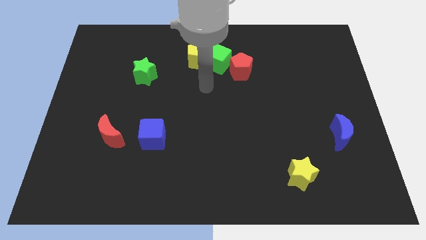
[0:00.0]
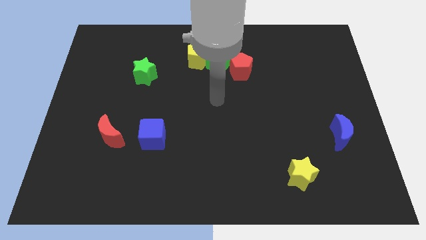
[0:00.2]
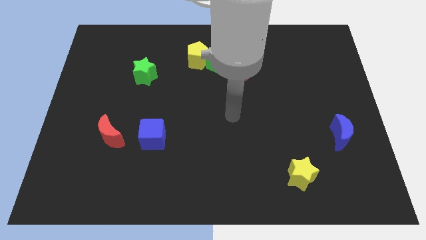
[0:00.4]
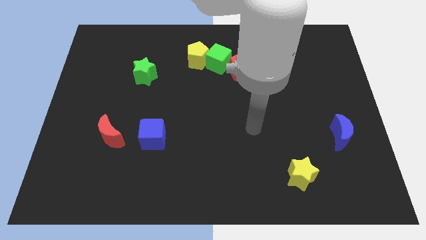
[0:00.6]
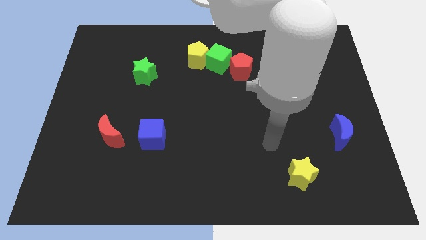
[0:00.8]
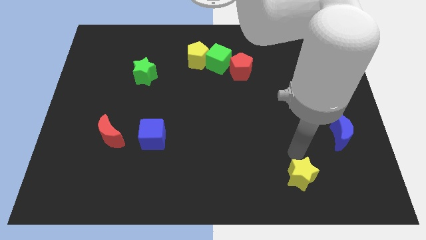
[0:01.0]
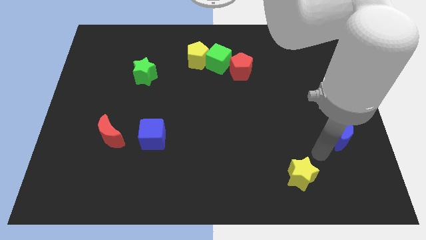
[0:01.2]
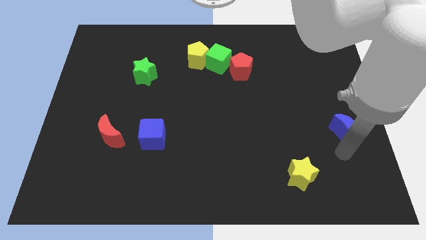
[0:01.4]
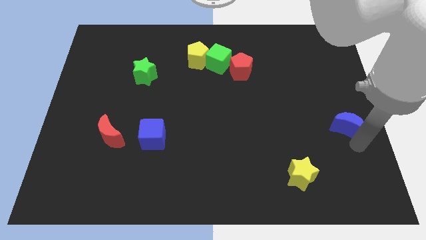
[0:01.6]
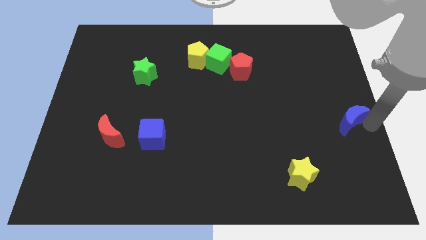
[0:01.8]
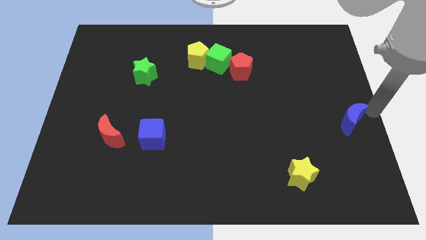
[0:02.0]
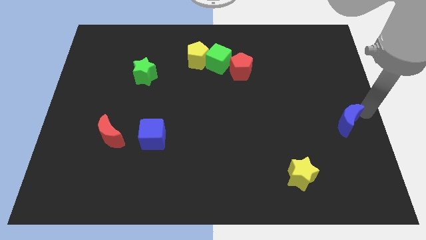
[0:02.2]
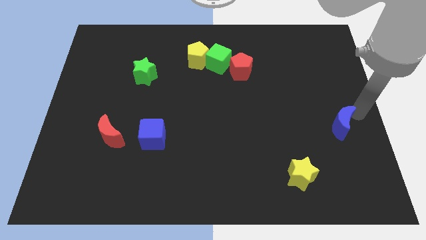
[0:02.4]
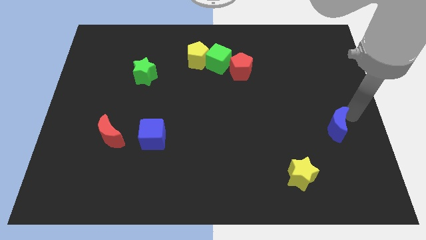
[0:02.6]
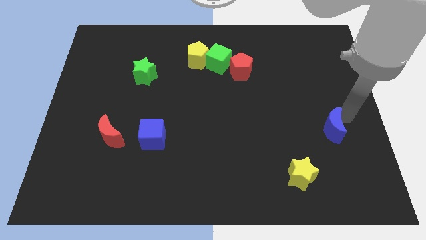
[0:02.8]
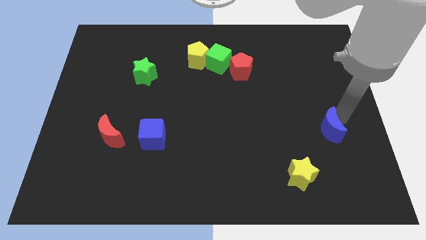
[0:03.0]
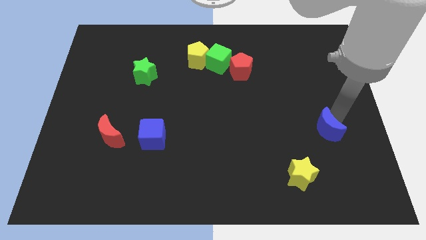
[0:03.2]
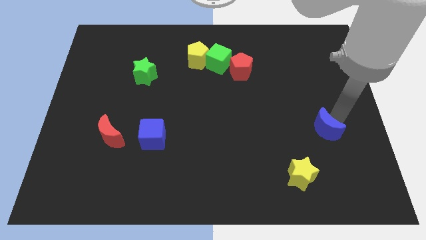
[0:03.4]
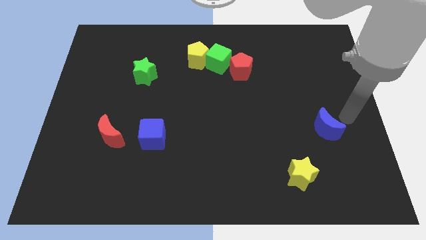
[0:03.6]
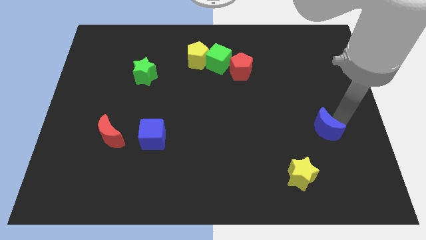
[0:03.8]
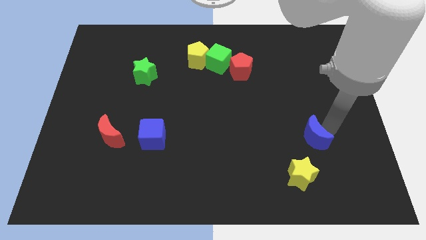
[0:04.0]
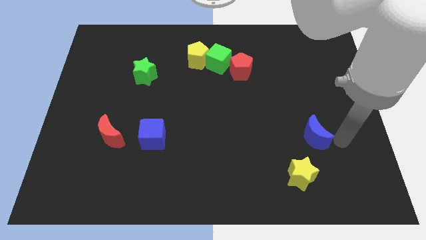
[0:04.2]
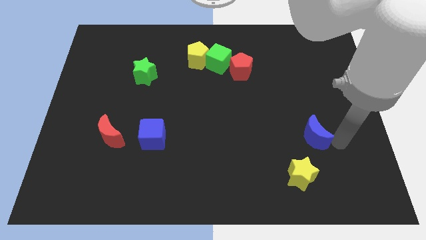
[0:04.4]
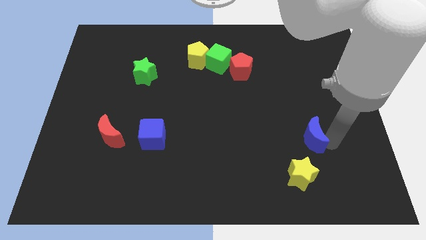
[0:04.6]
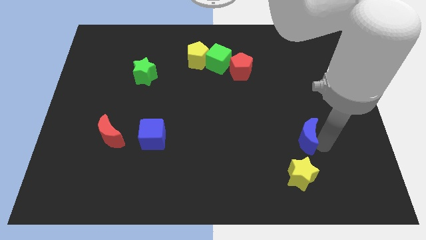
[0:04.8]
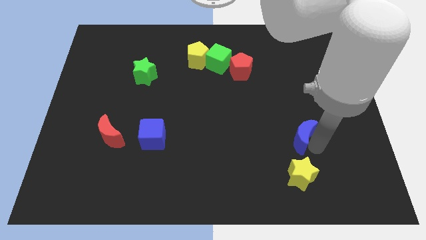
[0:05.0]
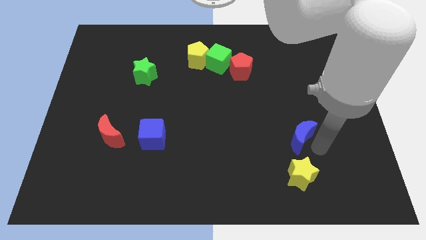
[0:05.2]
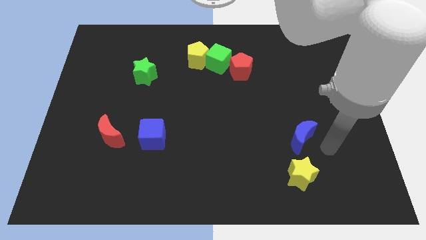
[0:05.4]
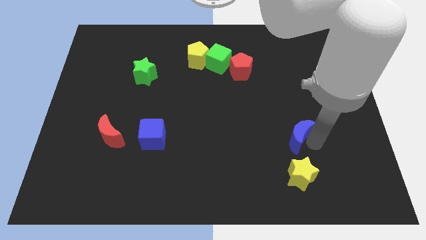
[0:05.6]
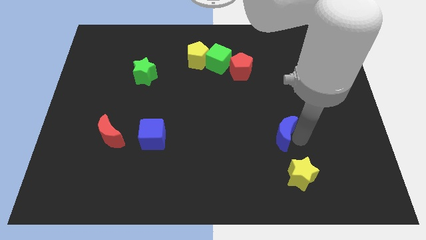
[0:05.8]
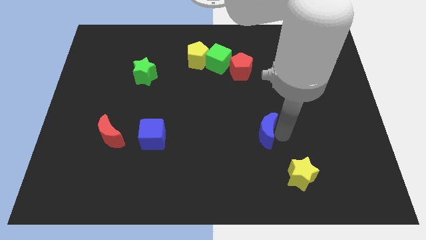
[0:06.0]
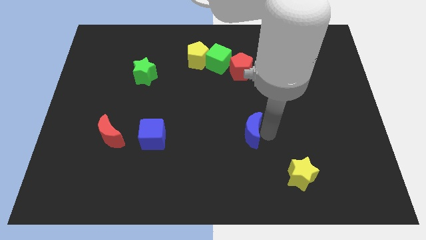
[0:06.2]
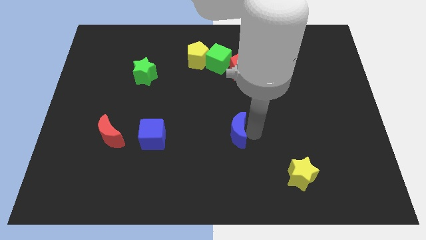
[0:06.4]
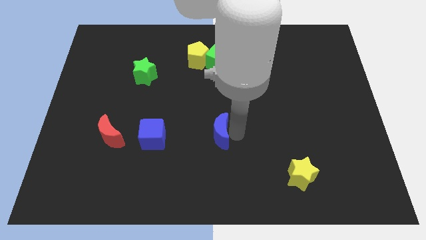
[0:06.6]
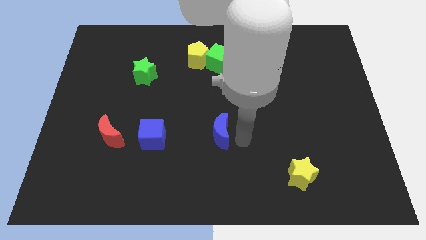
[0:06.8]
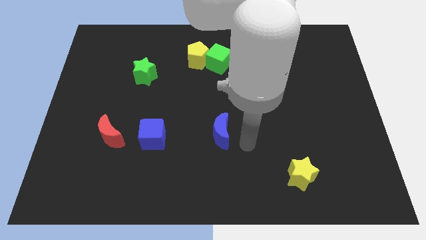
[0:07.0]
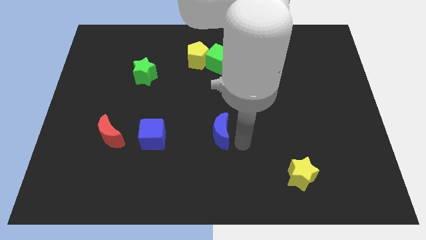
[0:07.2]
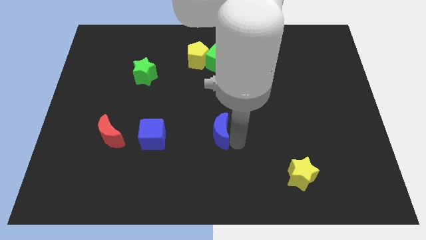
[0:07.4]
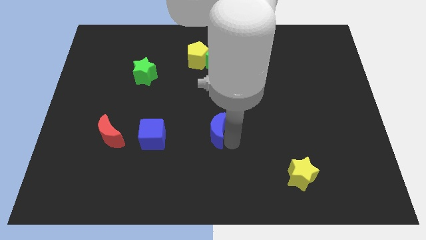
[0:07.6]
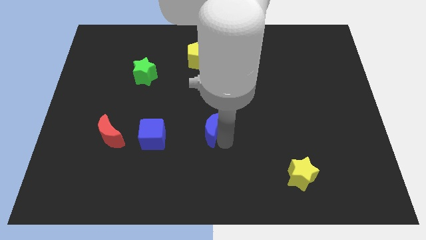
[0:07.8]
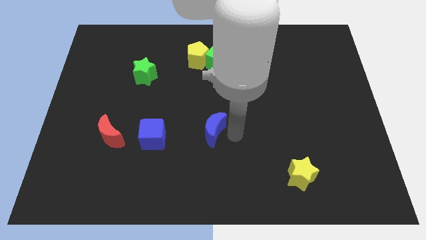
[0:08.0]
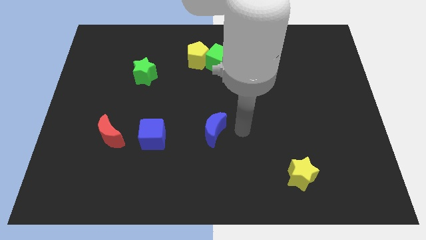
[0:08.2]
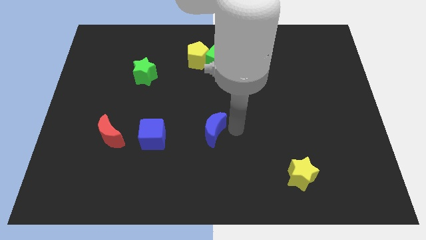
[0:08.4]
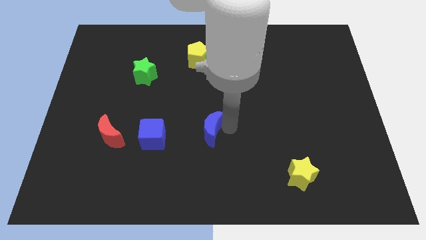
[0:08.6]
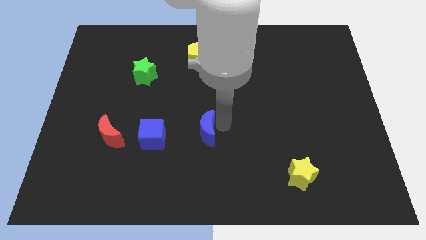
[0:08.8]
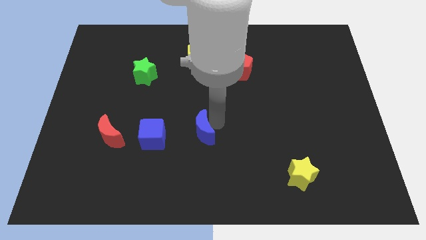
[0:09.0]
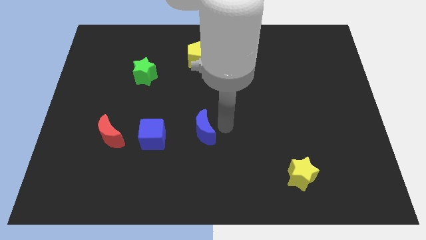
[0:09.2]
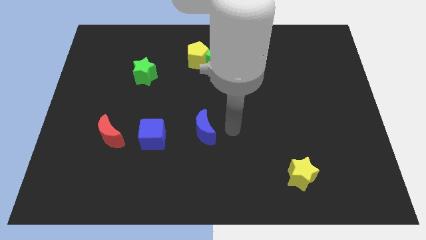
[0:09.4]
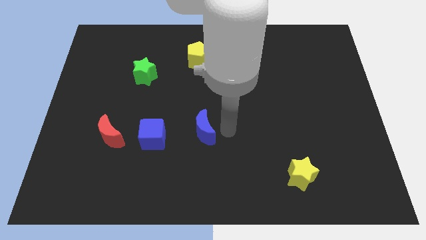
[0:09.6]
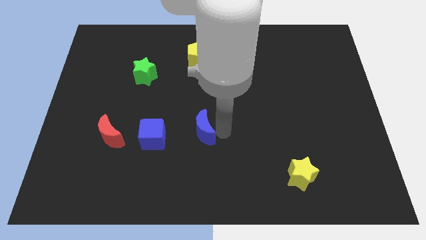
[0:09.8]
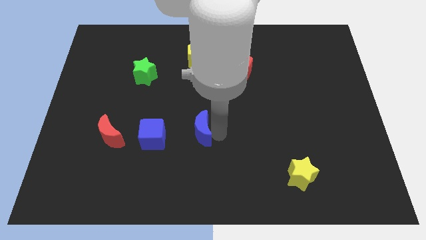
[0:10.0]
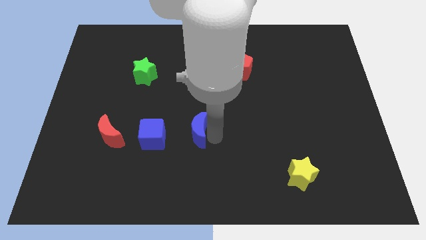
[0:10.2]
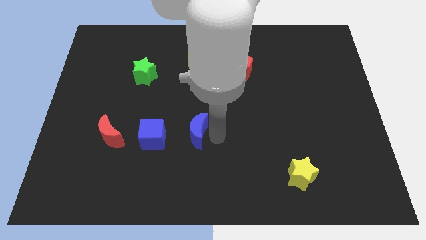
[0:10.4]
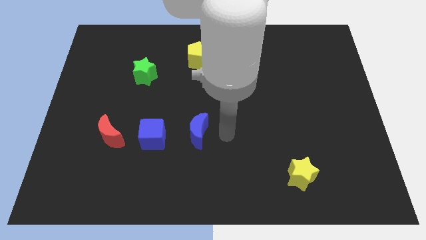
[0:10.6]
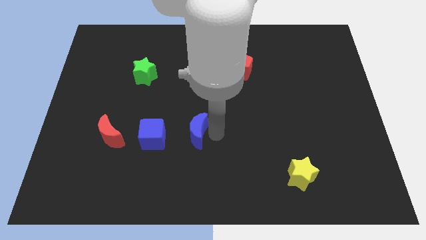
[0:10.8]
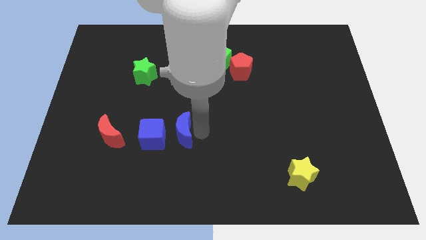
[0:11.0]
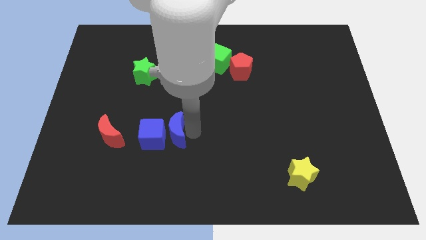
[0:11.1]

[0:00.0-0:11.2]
push the blue moon to the blue cube

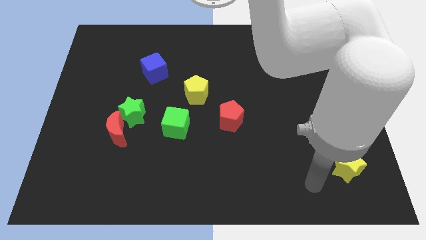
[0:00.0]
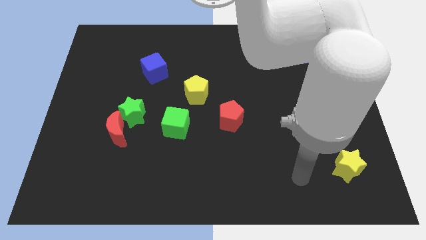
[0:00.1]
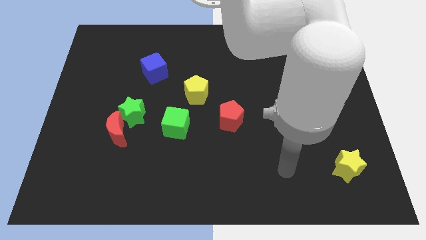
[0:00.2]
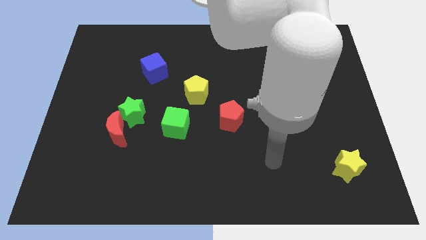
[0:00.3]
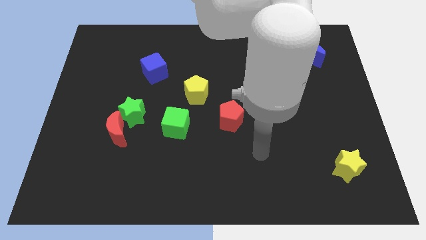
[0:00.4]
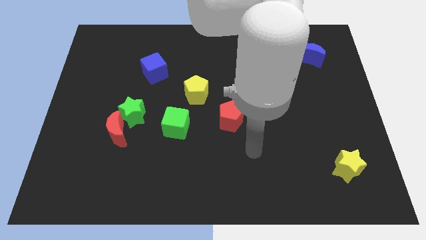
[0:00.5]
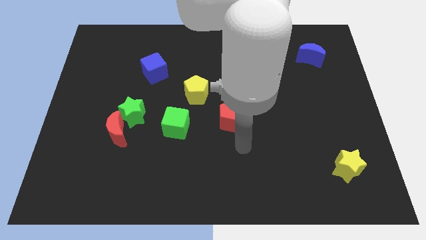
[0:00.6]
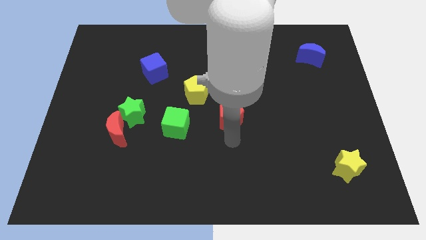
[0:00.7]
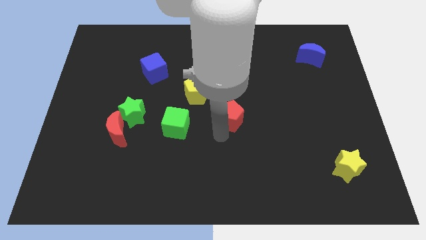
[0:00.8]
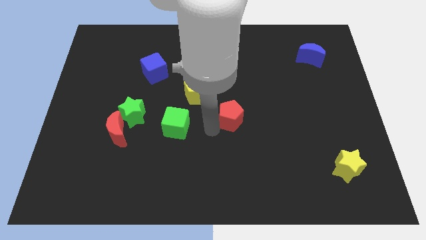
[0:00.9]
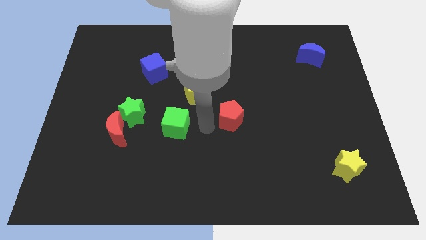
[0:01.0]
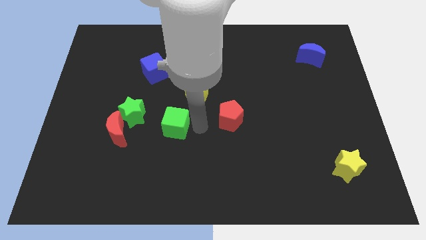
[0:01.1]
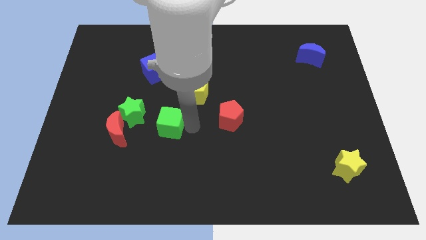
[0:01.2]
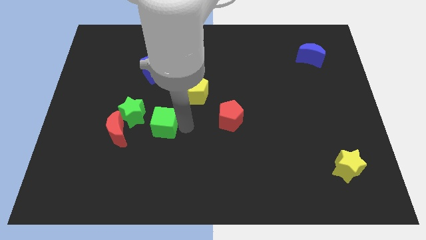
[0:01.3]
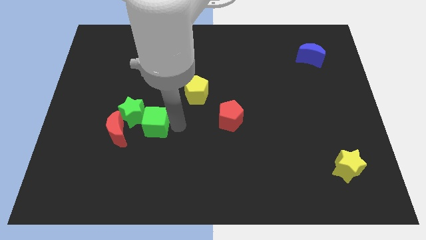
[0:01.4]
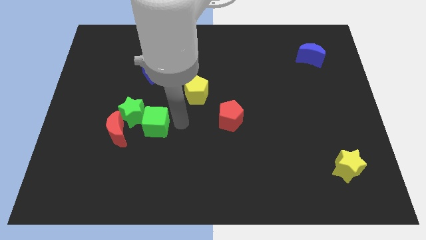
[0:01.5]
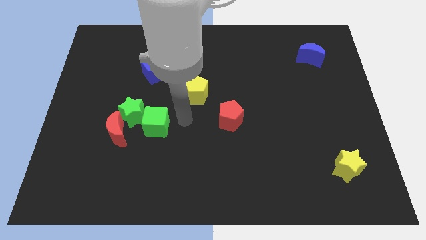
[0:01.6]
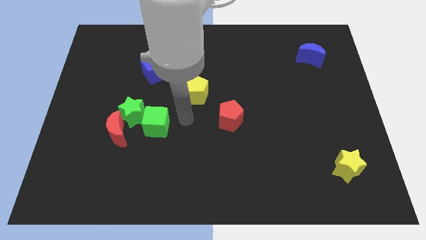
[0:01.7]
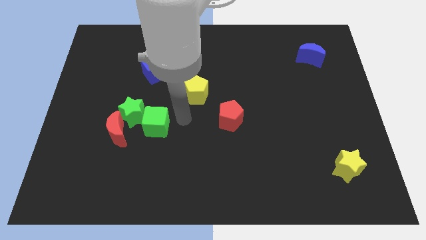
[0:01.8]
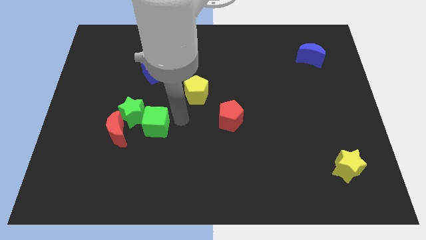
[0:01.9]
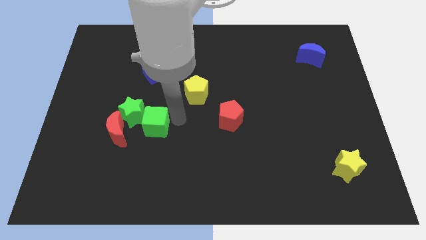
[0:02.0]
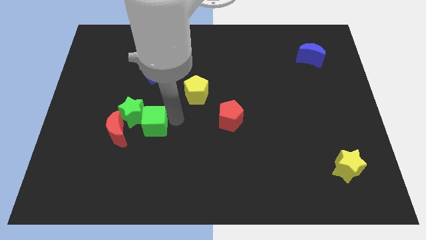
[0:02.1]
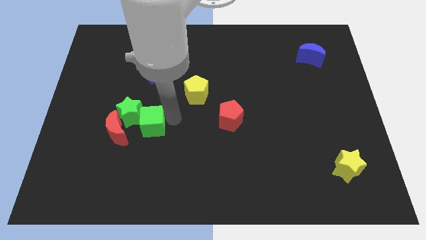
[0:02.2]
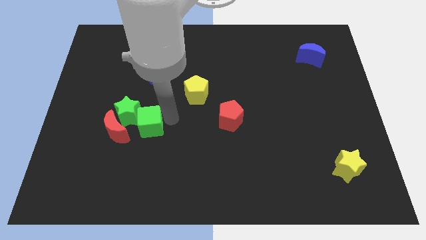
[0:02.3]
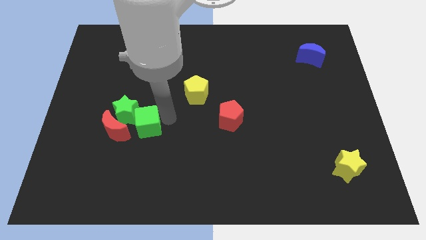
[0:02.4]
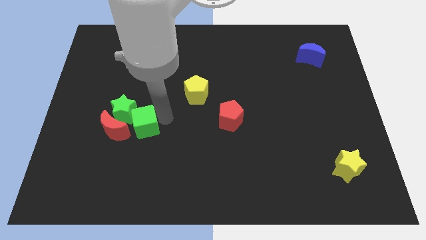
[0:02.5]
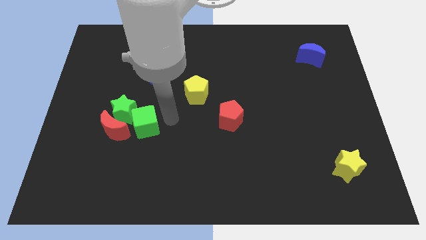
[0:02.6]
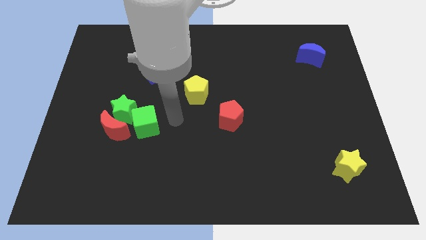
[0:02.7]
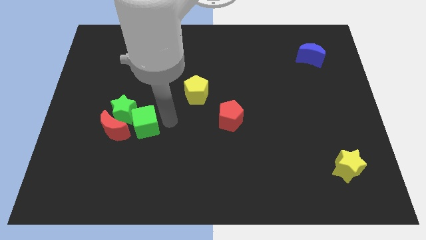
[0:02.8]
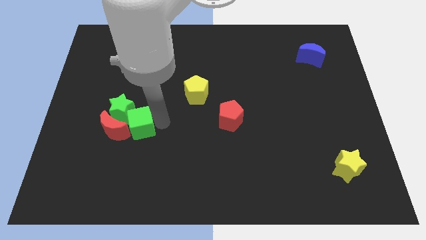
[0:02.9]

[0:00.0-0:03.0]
put the green cube close to the red moon
